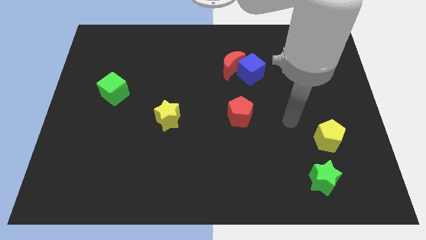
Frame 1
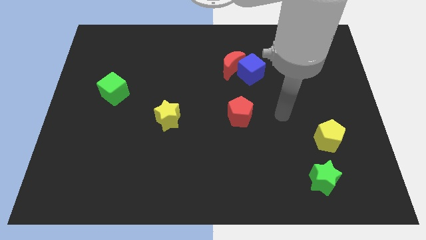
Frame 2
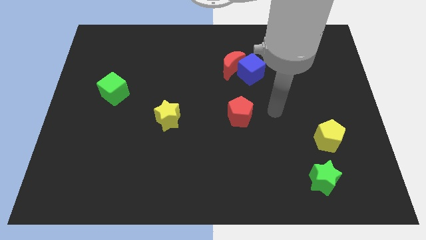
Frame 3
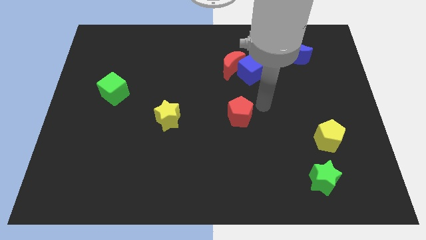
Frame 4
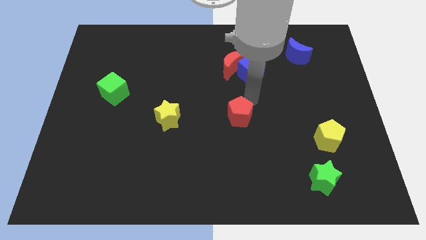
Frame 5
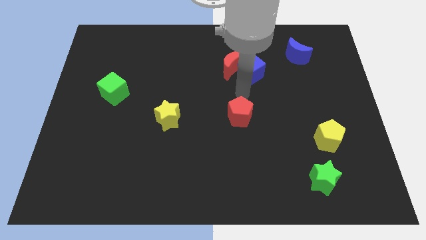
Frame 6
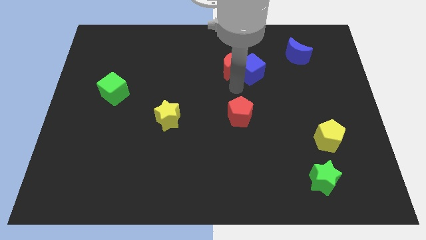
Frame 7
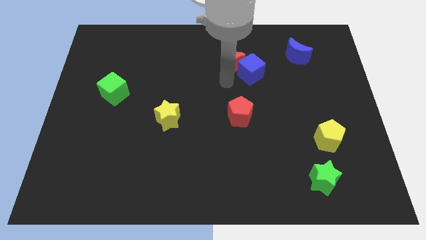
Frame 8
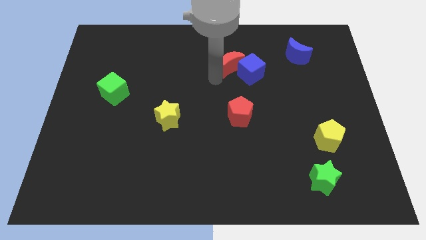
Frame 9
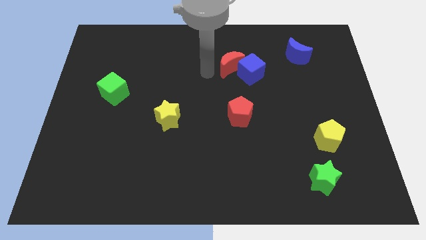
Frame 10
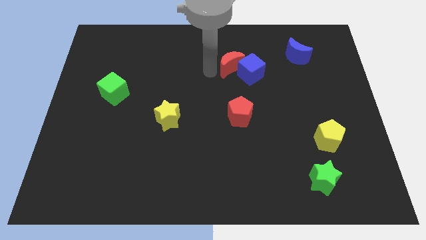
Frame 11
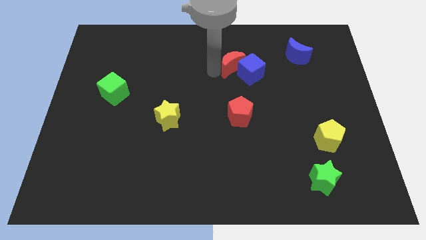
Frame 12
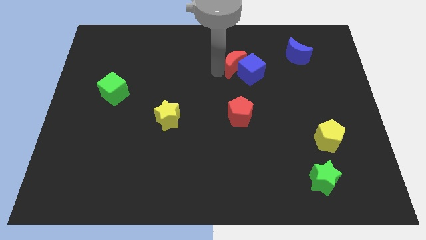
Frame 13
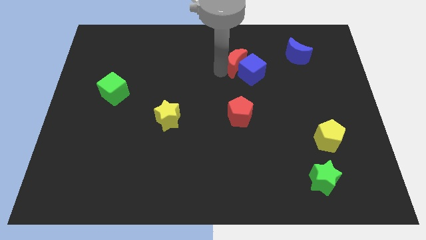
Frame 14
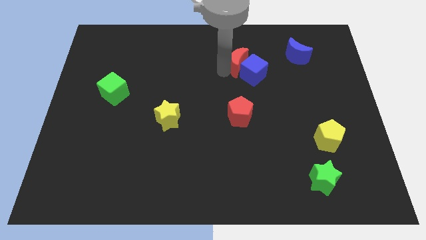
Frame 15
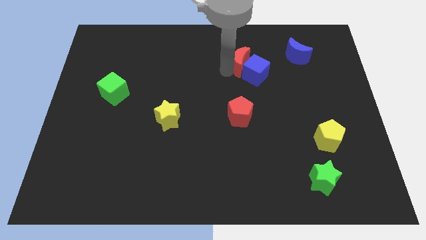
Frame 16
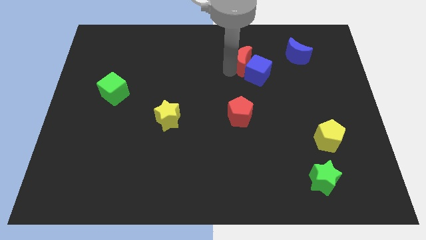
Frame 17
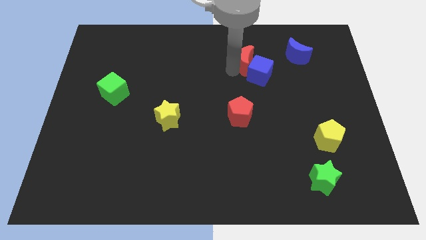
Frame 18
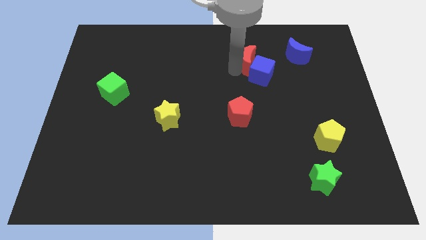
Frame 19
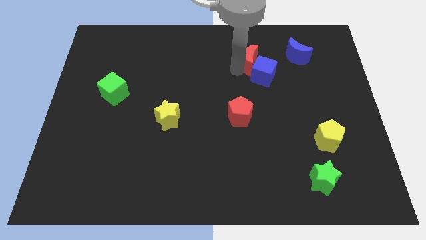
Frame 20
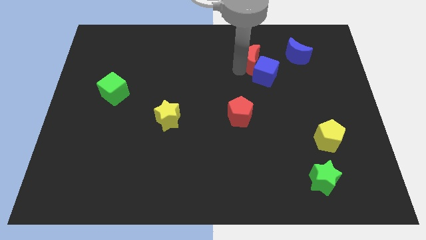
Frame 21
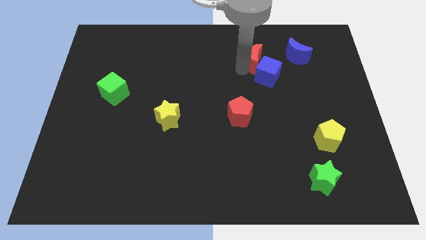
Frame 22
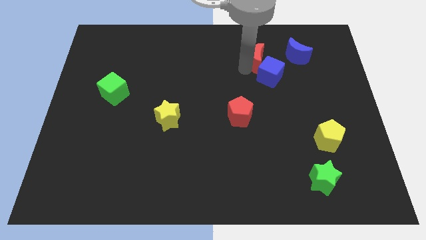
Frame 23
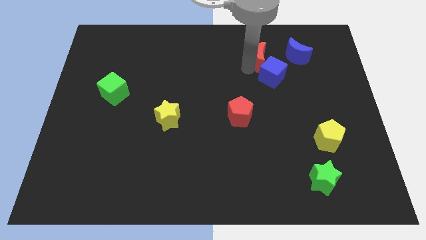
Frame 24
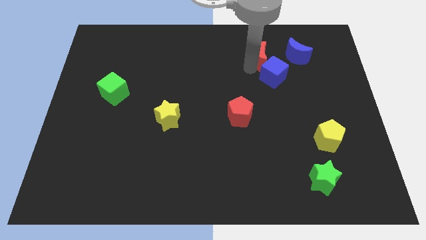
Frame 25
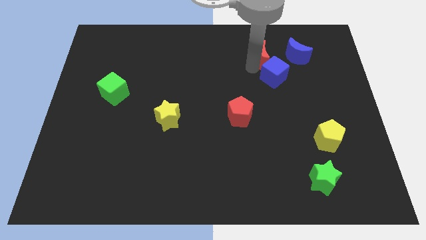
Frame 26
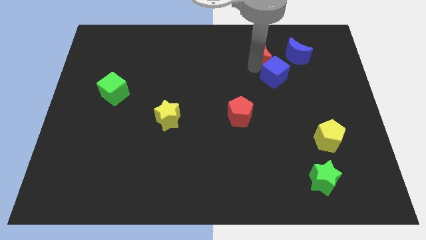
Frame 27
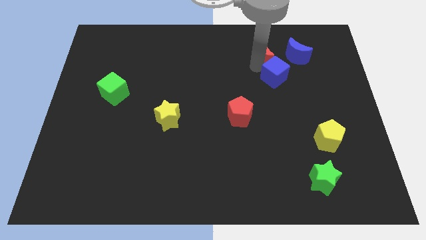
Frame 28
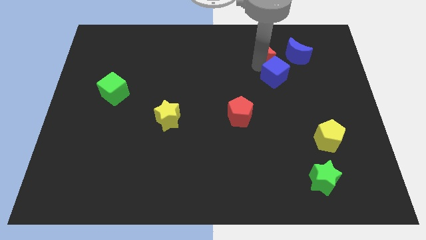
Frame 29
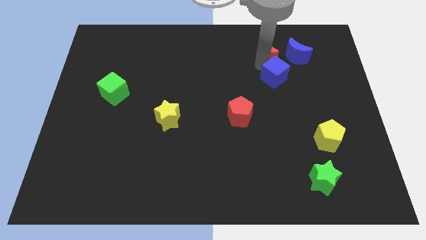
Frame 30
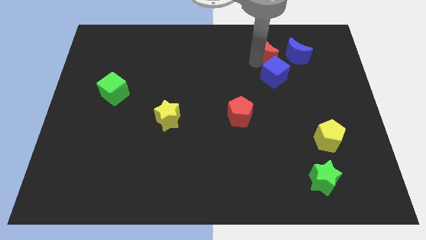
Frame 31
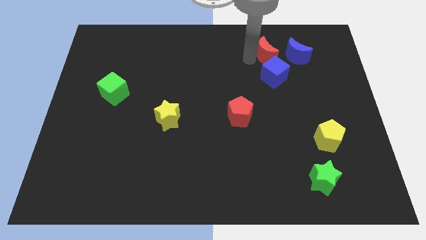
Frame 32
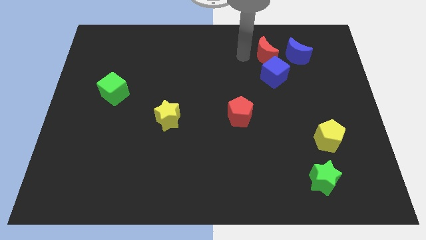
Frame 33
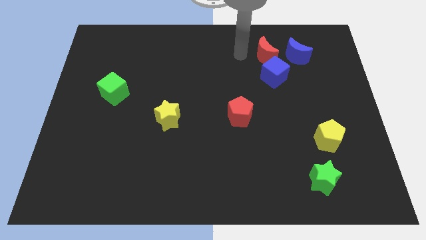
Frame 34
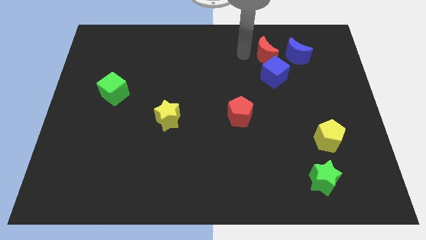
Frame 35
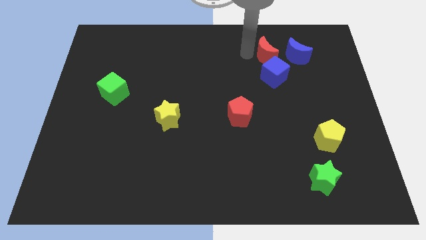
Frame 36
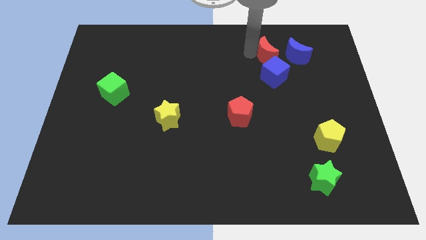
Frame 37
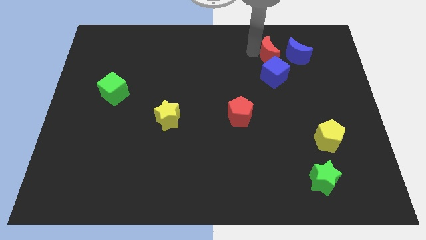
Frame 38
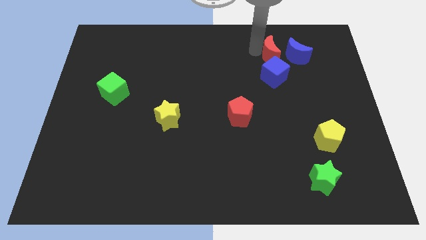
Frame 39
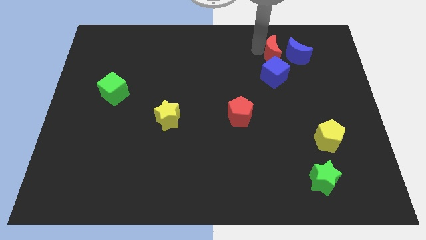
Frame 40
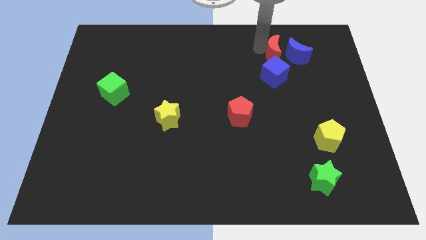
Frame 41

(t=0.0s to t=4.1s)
put the red moon towards the blue moon

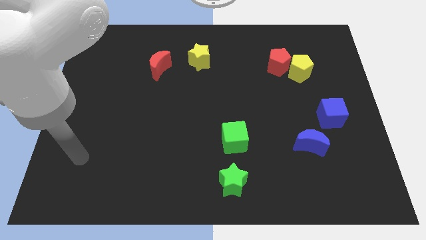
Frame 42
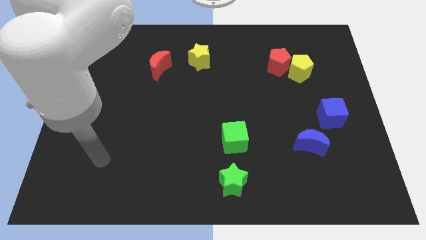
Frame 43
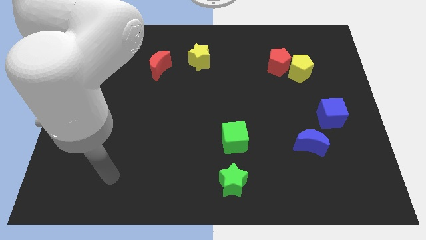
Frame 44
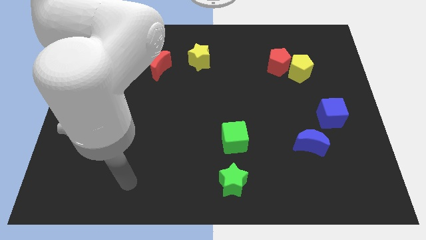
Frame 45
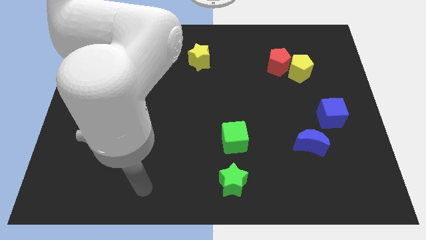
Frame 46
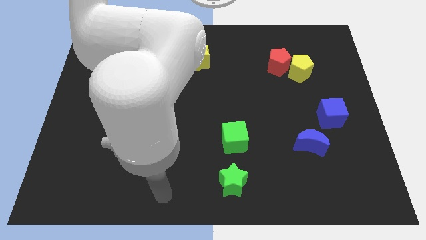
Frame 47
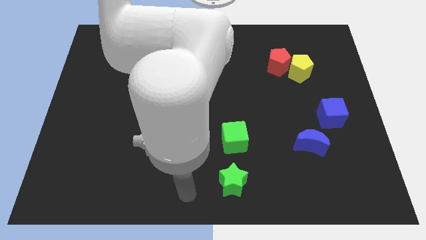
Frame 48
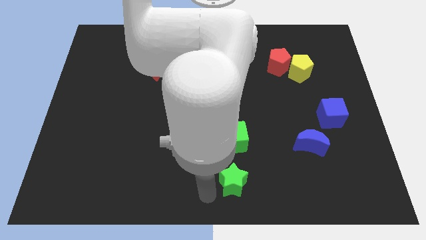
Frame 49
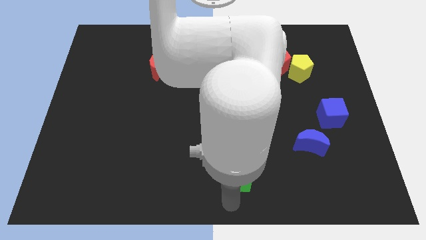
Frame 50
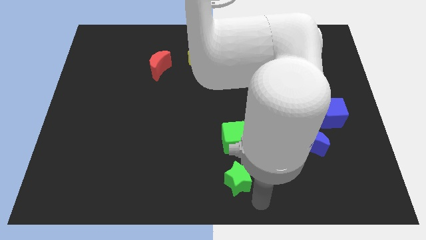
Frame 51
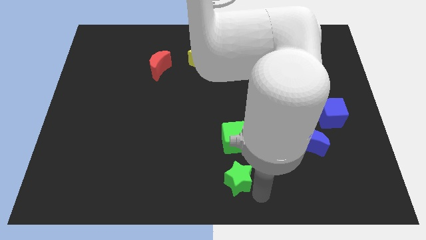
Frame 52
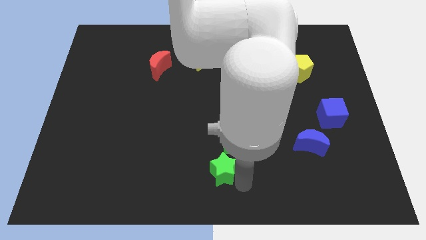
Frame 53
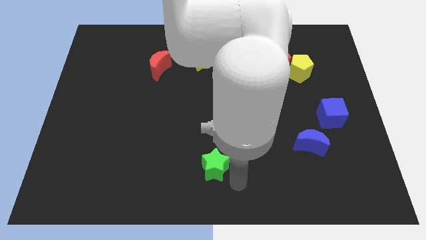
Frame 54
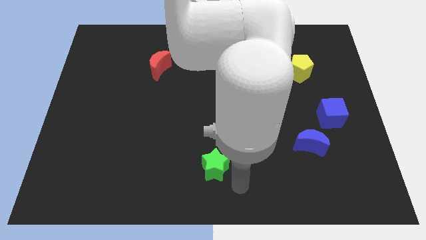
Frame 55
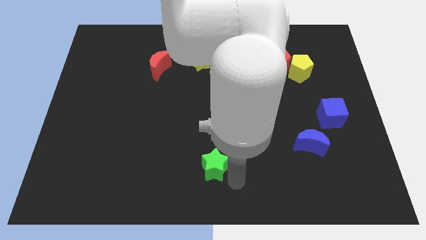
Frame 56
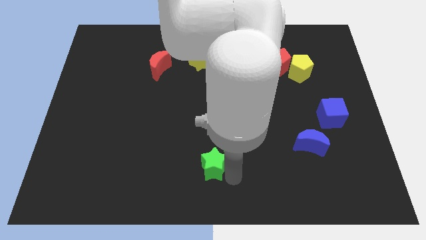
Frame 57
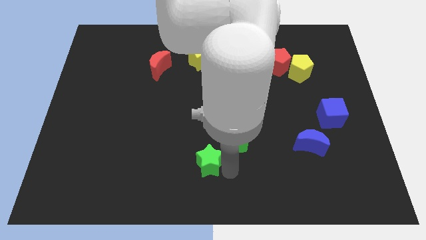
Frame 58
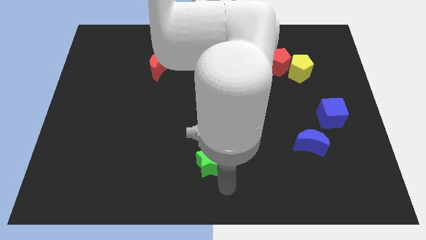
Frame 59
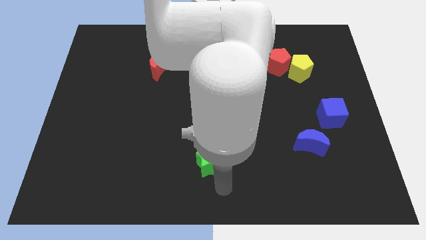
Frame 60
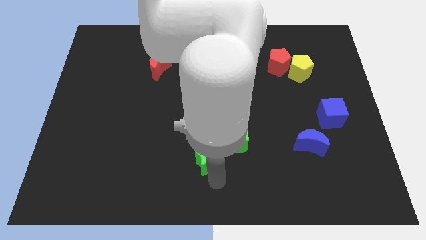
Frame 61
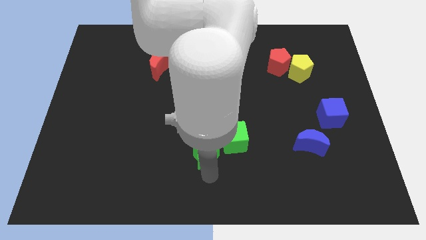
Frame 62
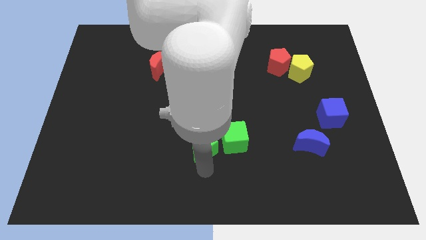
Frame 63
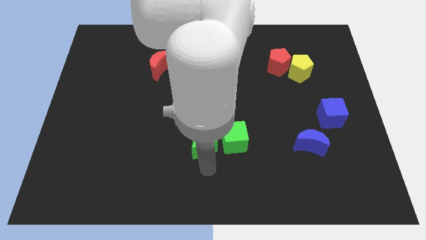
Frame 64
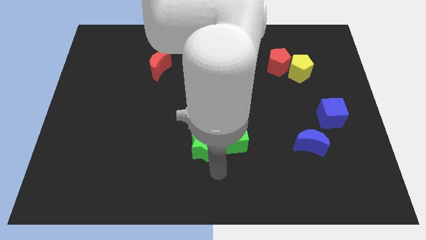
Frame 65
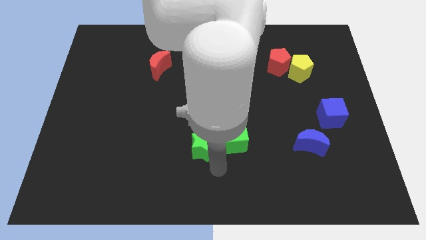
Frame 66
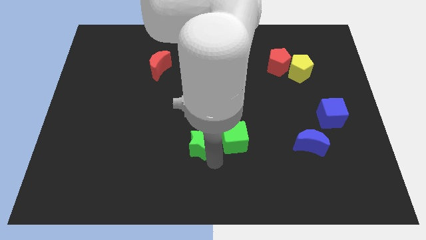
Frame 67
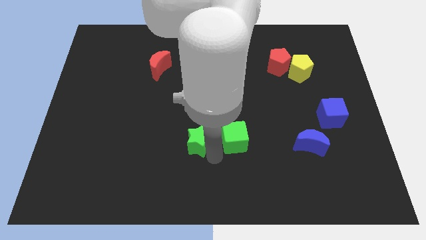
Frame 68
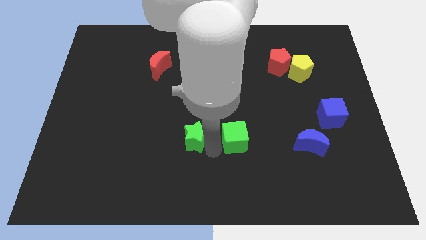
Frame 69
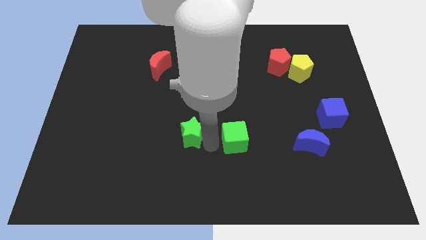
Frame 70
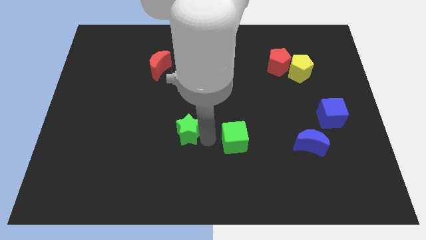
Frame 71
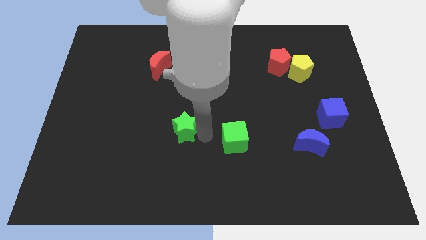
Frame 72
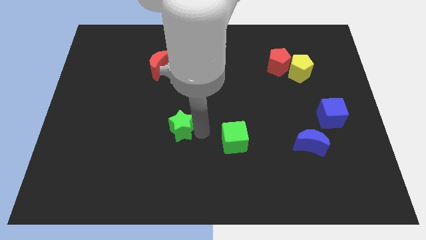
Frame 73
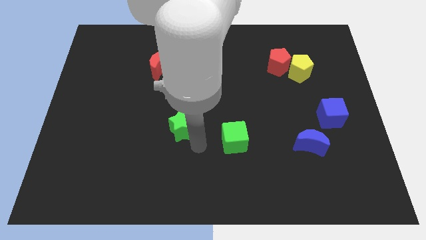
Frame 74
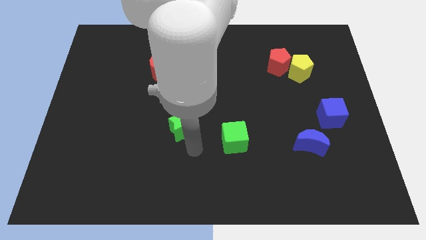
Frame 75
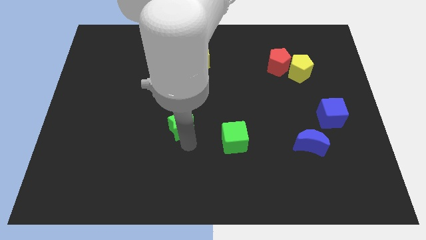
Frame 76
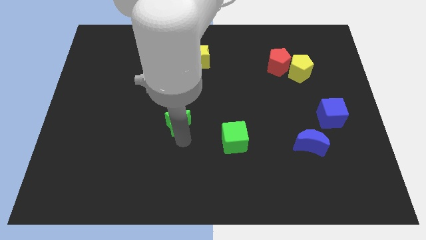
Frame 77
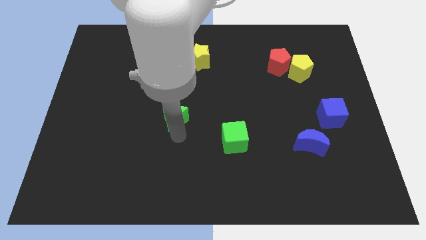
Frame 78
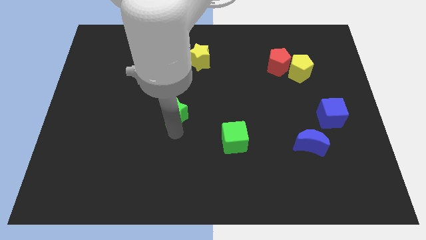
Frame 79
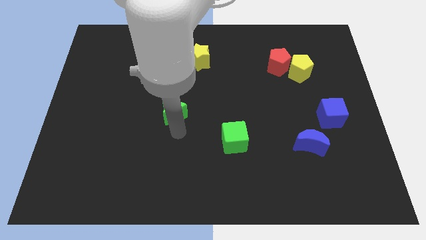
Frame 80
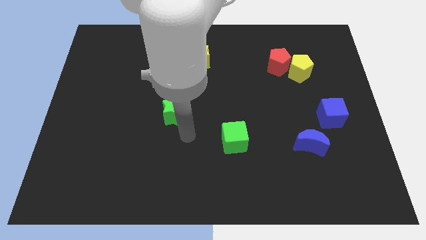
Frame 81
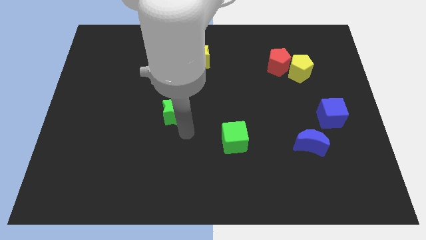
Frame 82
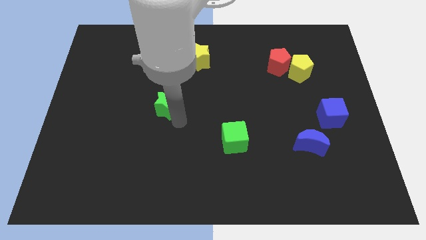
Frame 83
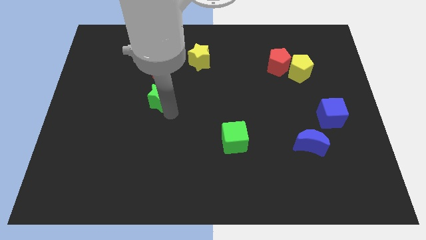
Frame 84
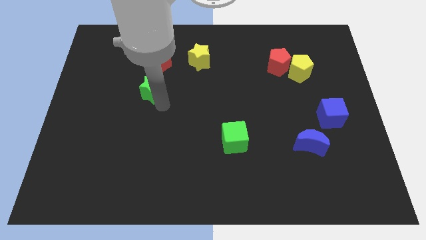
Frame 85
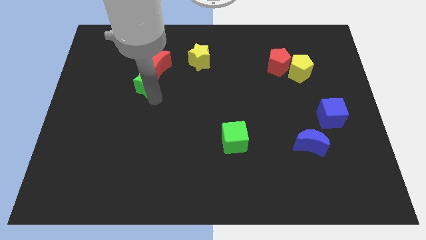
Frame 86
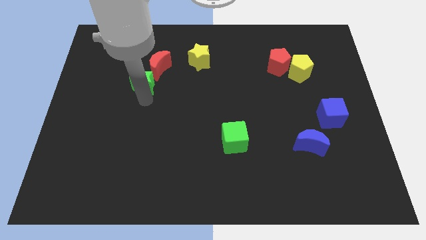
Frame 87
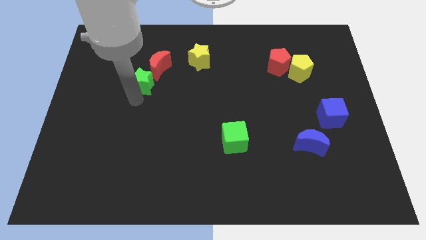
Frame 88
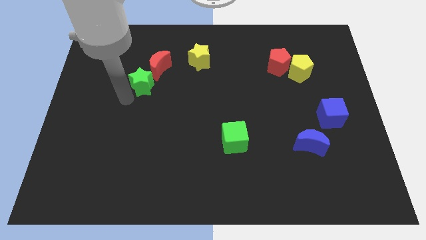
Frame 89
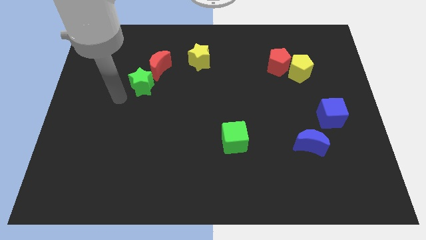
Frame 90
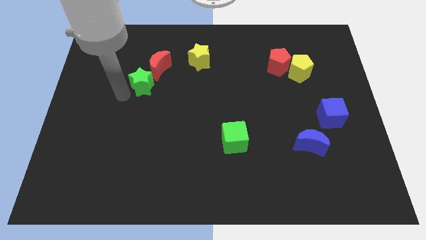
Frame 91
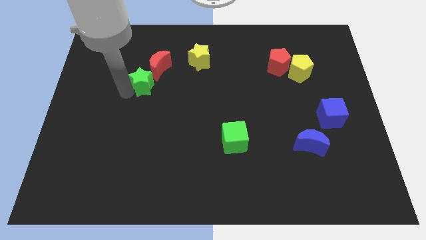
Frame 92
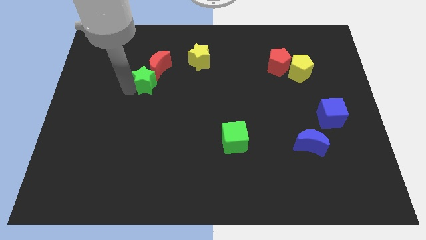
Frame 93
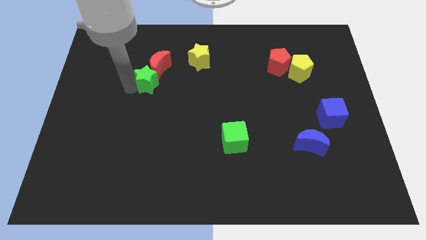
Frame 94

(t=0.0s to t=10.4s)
move the green star next to the red moon
